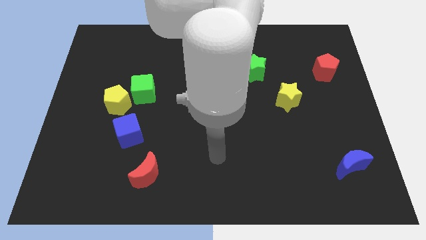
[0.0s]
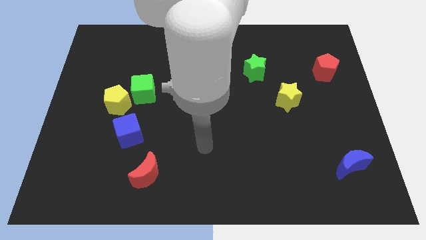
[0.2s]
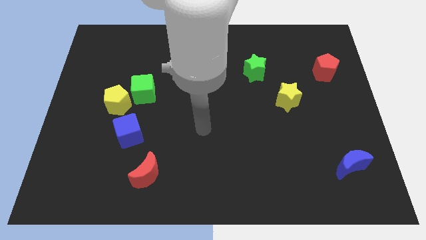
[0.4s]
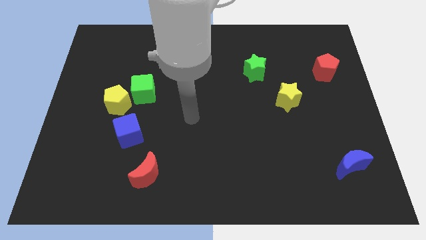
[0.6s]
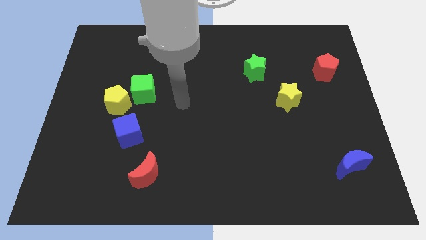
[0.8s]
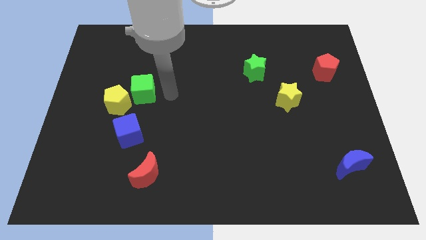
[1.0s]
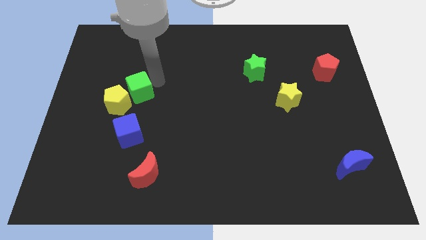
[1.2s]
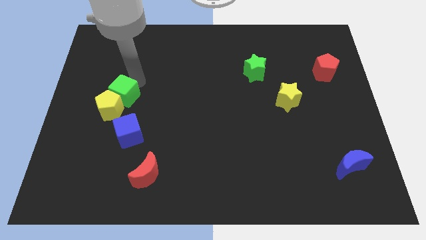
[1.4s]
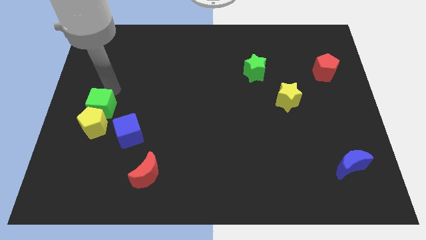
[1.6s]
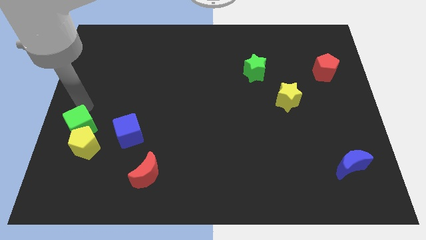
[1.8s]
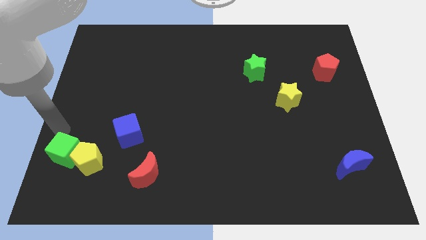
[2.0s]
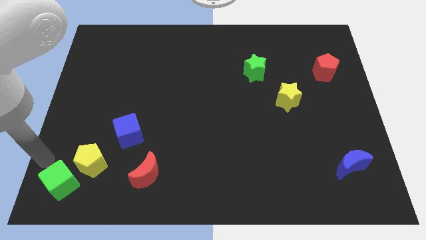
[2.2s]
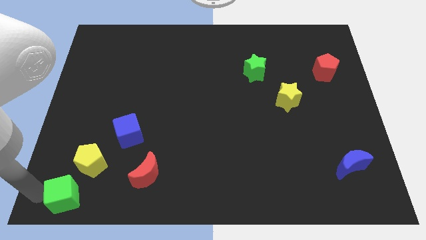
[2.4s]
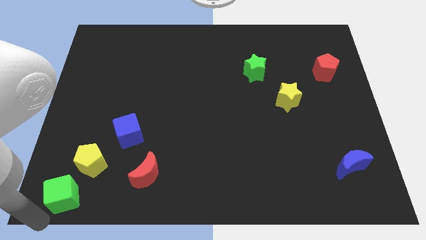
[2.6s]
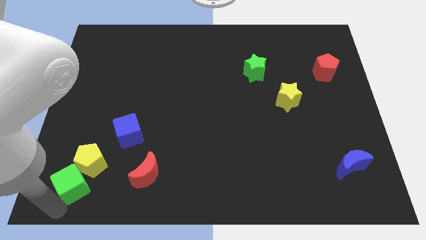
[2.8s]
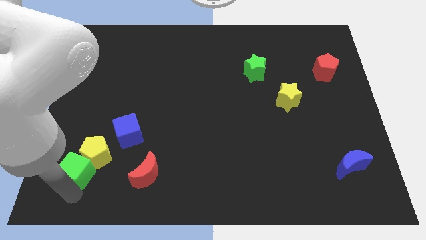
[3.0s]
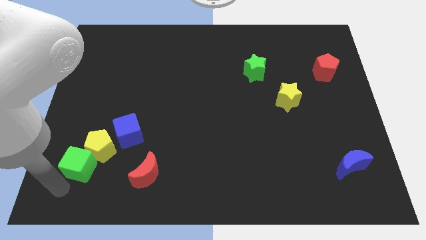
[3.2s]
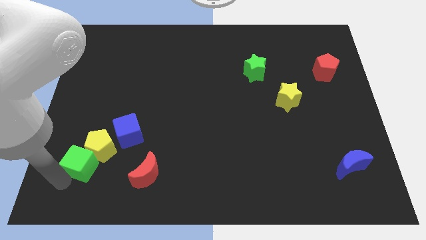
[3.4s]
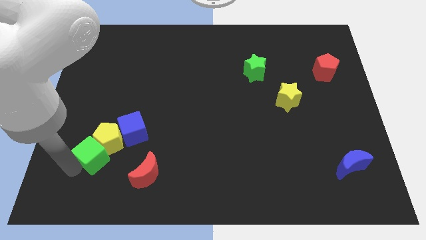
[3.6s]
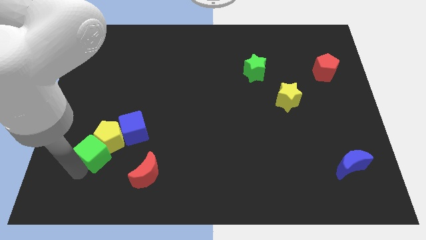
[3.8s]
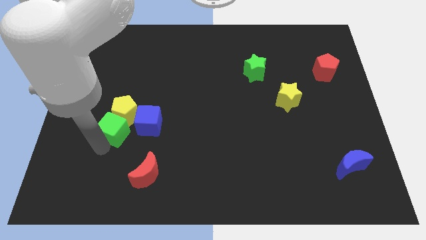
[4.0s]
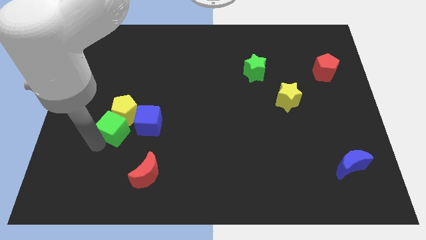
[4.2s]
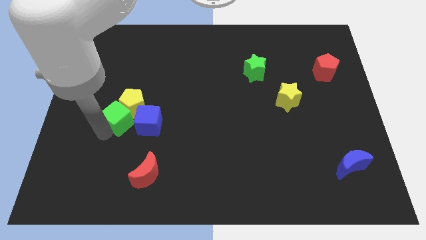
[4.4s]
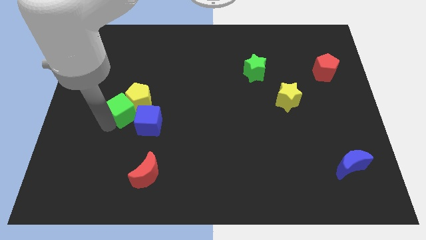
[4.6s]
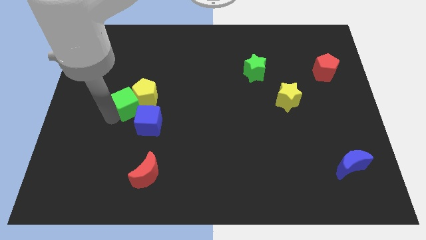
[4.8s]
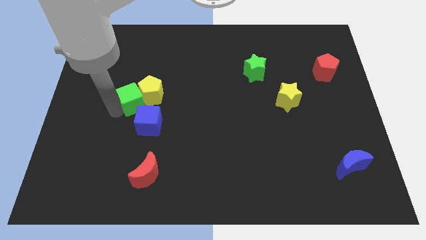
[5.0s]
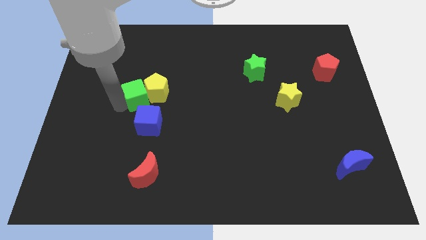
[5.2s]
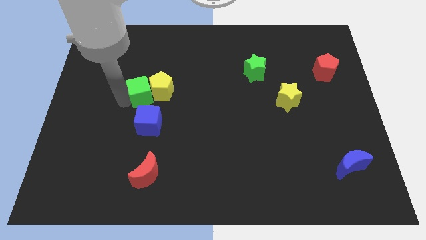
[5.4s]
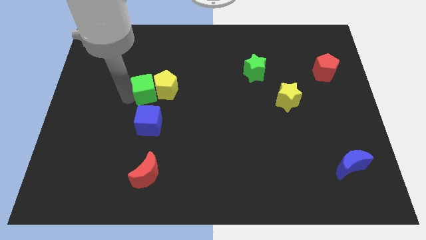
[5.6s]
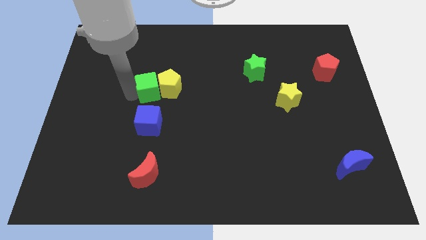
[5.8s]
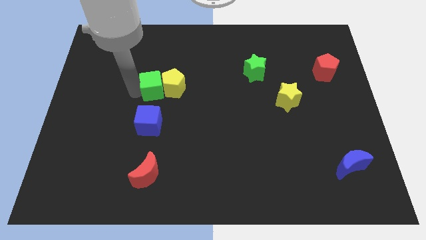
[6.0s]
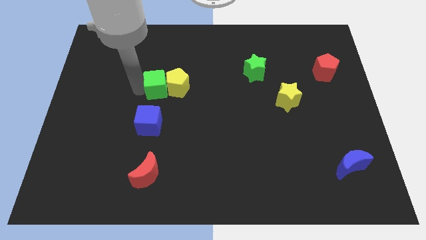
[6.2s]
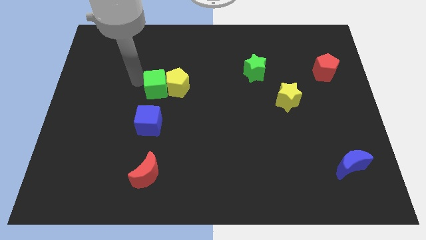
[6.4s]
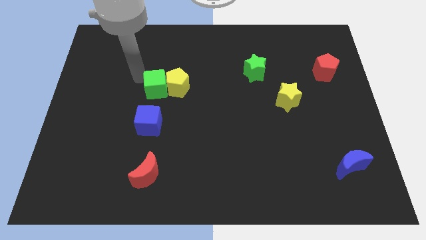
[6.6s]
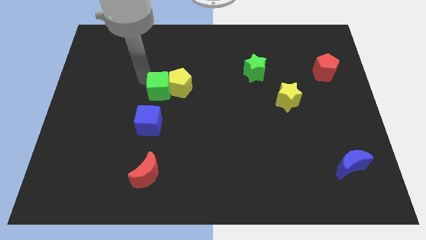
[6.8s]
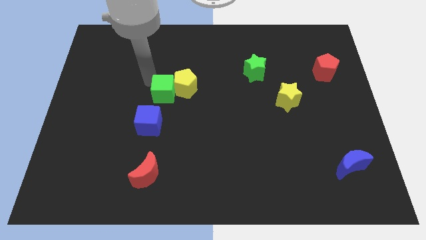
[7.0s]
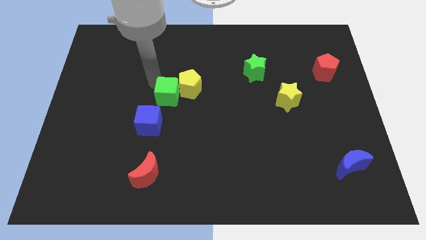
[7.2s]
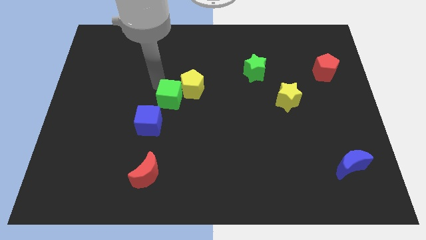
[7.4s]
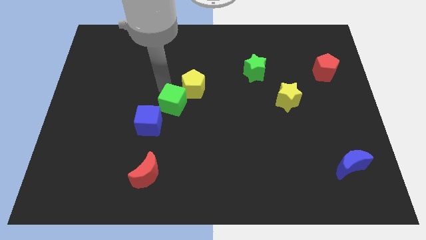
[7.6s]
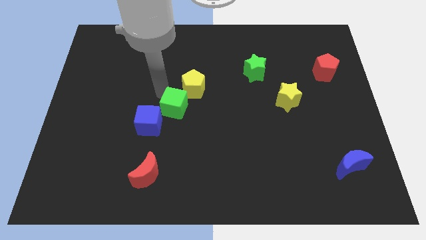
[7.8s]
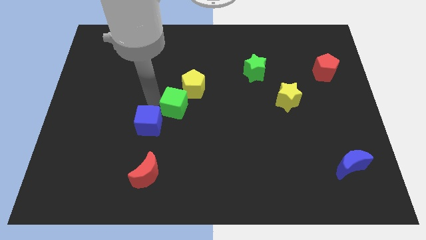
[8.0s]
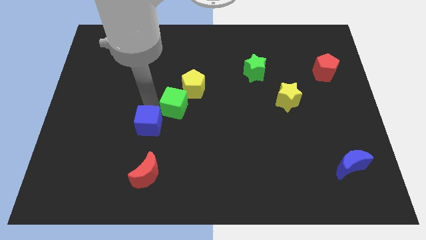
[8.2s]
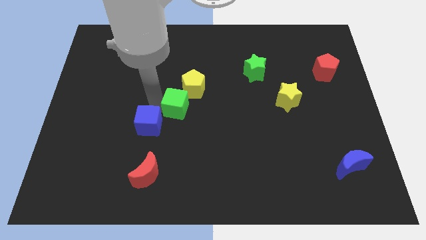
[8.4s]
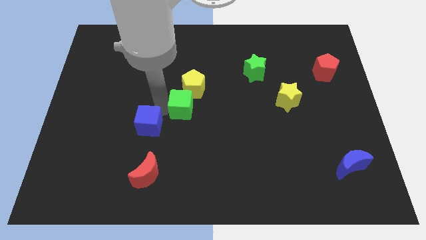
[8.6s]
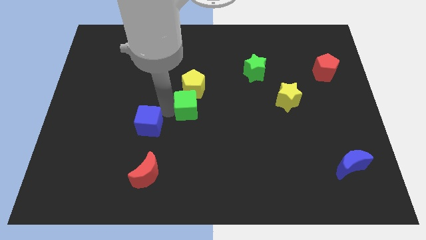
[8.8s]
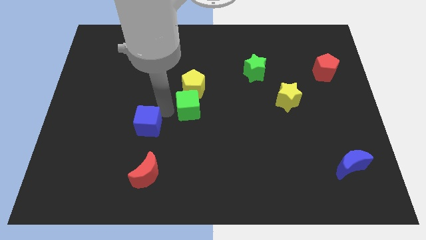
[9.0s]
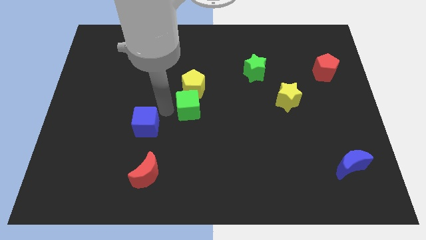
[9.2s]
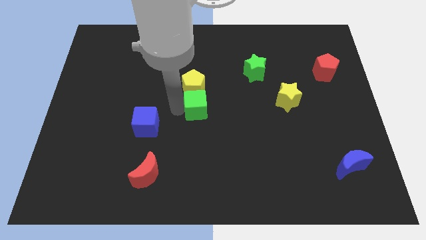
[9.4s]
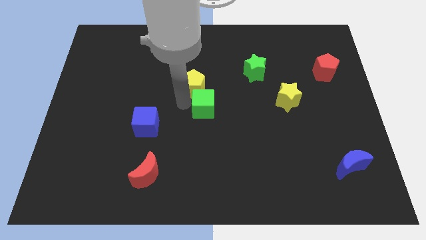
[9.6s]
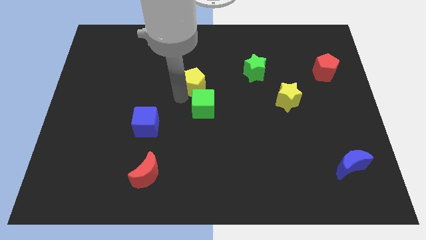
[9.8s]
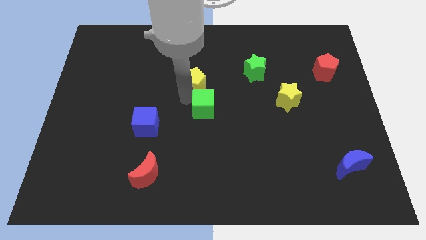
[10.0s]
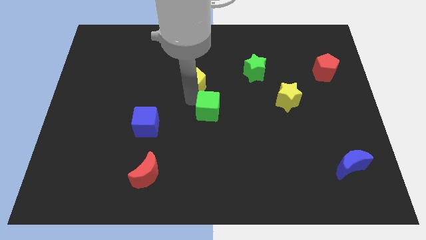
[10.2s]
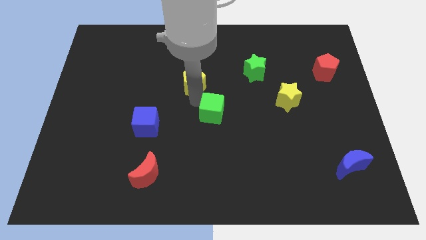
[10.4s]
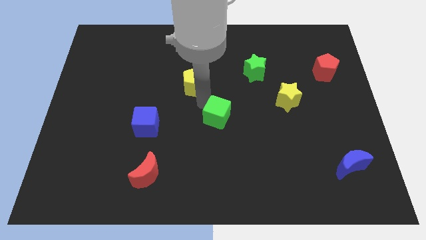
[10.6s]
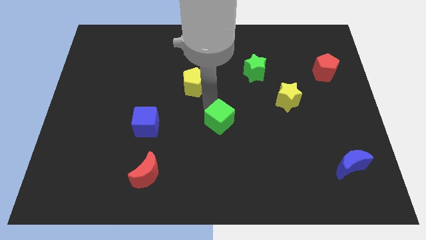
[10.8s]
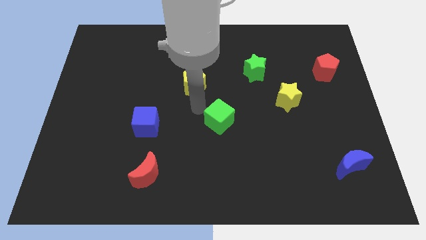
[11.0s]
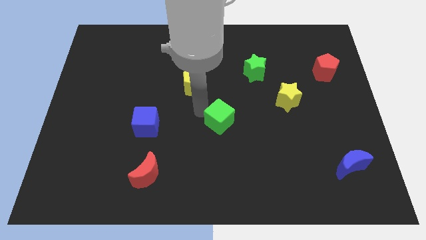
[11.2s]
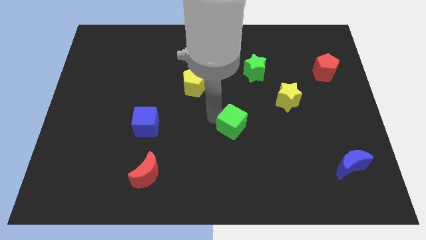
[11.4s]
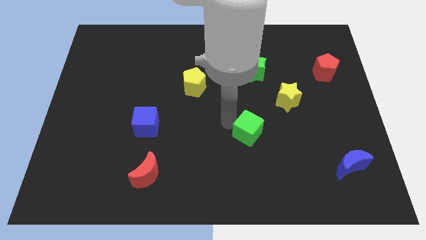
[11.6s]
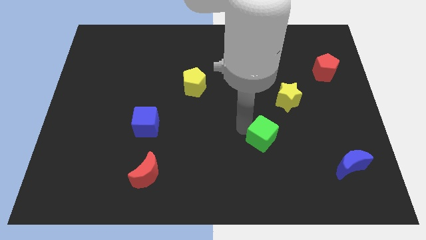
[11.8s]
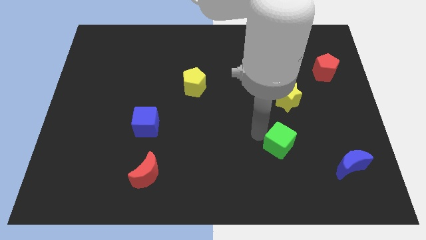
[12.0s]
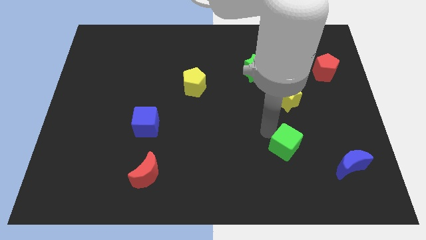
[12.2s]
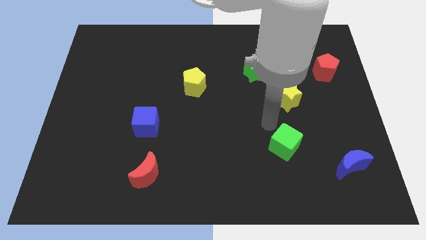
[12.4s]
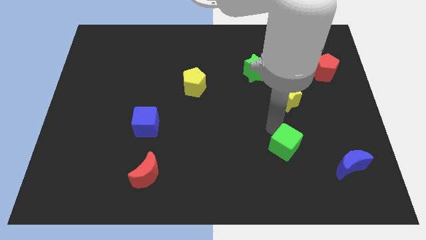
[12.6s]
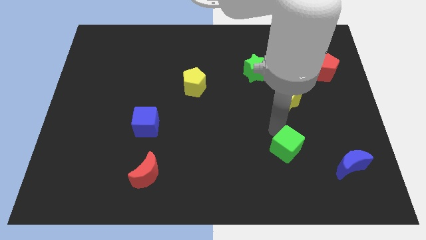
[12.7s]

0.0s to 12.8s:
push the green cube just left of the blue moon

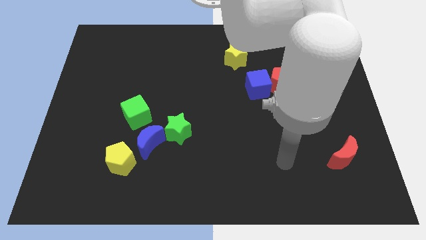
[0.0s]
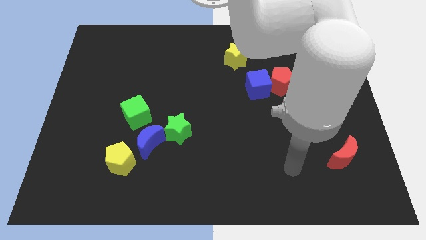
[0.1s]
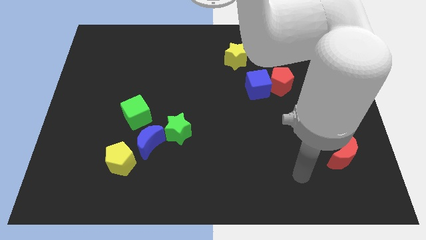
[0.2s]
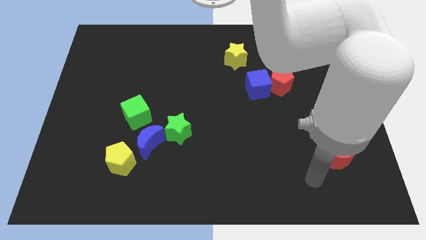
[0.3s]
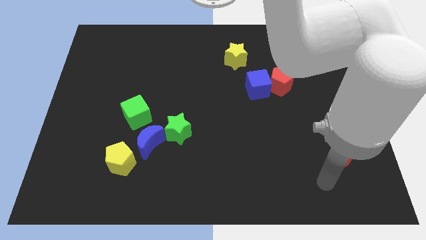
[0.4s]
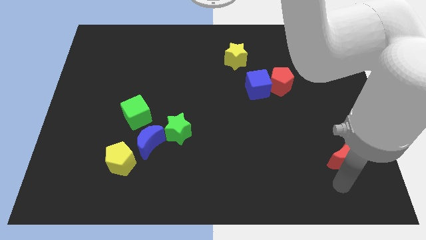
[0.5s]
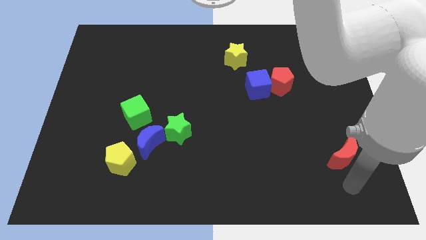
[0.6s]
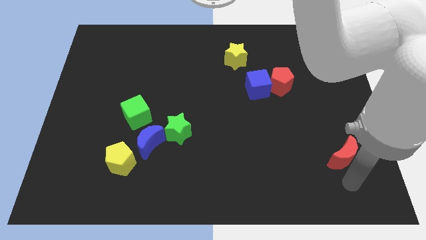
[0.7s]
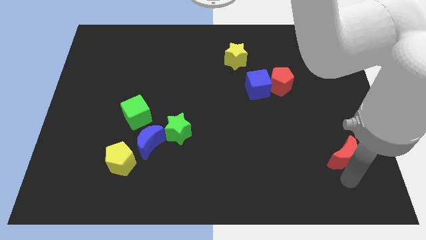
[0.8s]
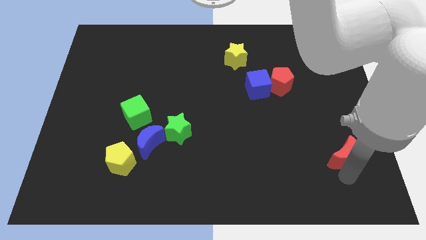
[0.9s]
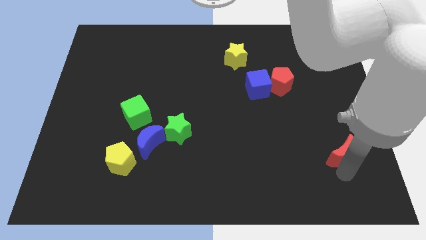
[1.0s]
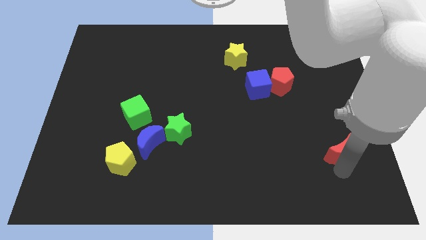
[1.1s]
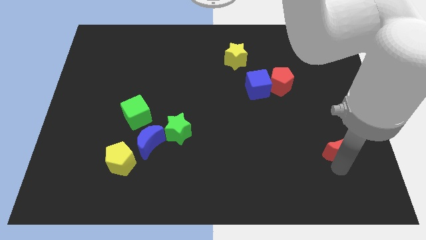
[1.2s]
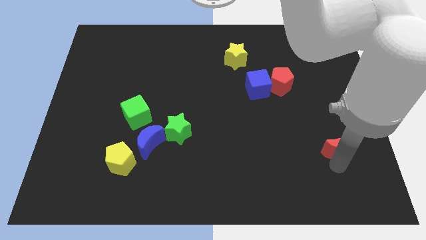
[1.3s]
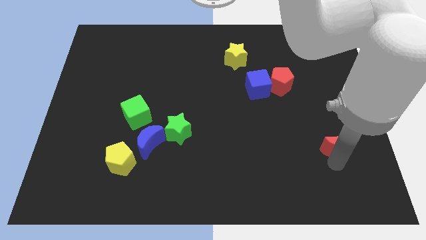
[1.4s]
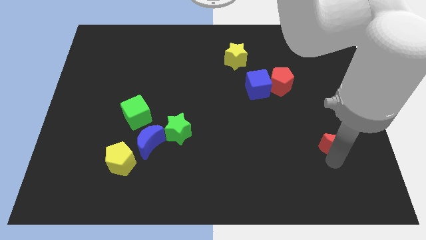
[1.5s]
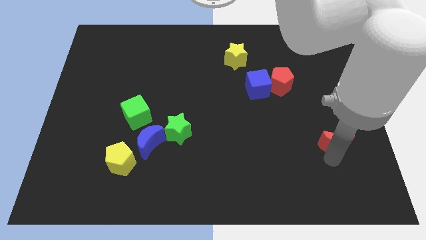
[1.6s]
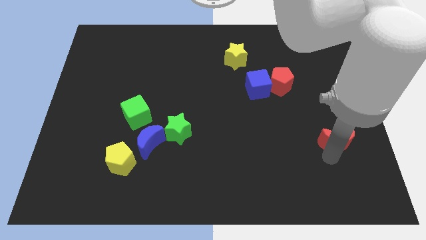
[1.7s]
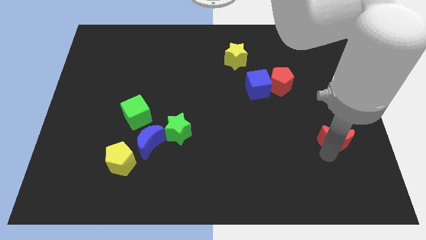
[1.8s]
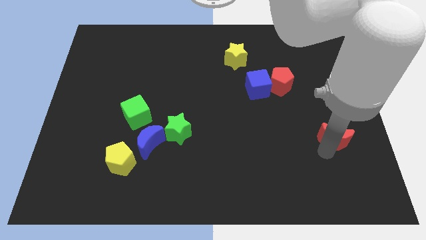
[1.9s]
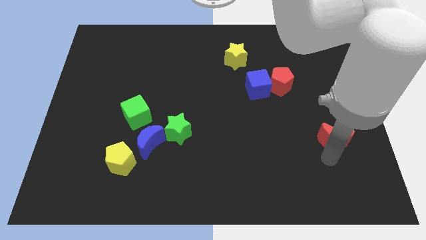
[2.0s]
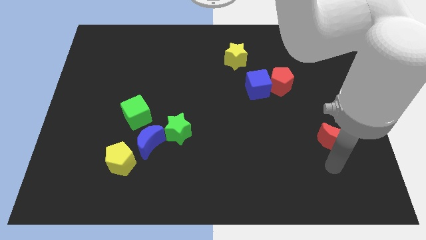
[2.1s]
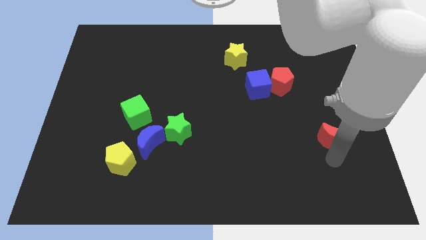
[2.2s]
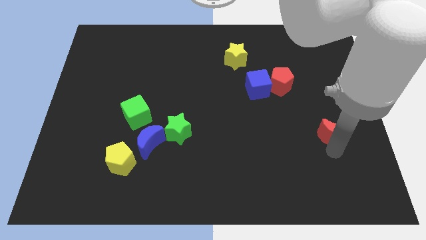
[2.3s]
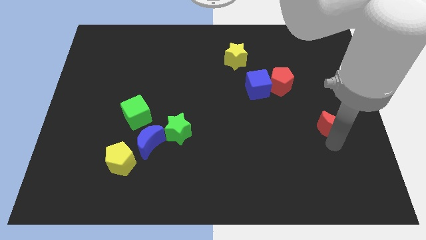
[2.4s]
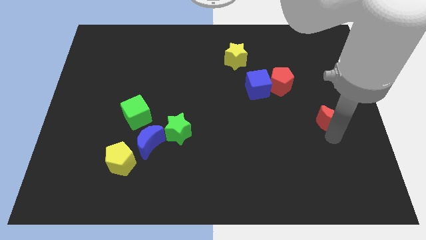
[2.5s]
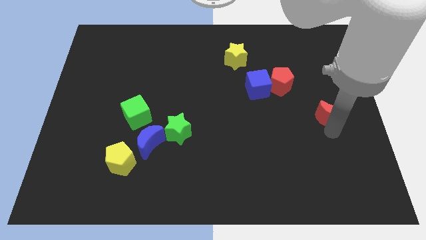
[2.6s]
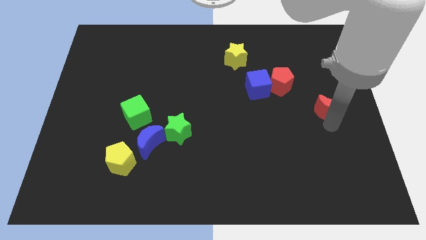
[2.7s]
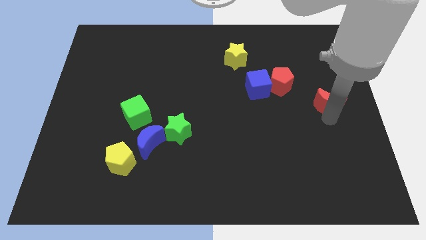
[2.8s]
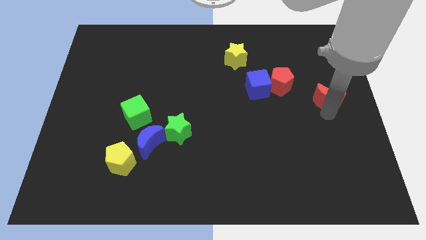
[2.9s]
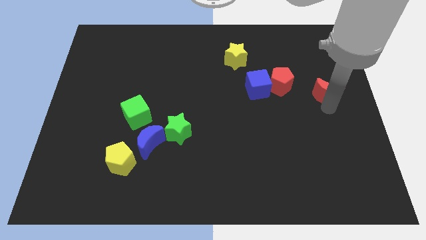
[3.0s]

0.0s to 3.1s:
push the red moon to the right side of the red pentagon
